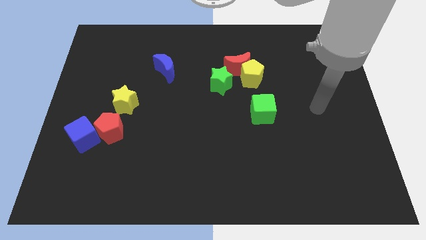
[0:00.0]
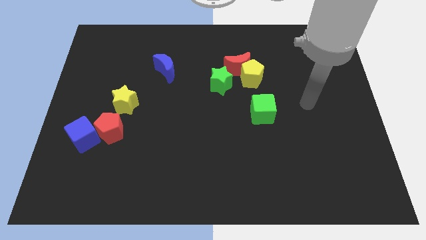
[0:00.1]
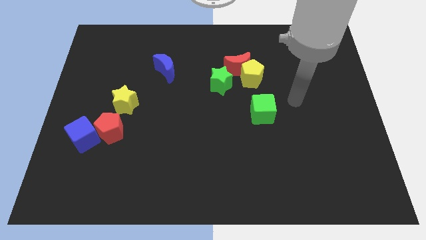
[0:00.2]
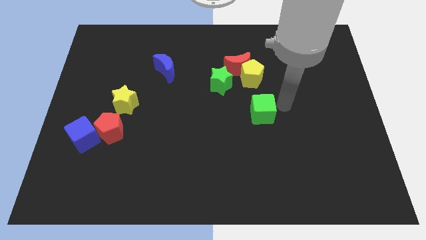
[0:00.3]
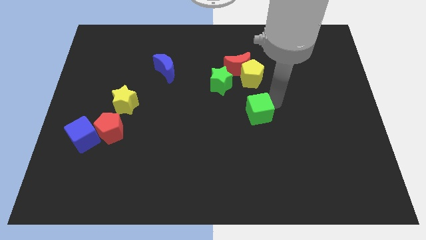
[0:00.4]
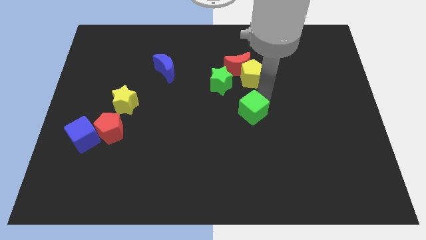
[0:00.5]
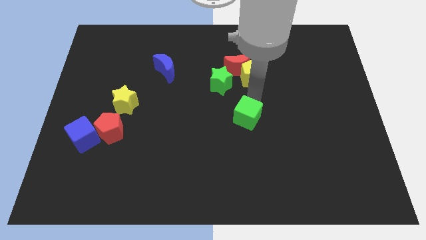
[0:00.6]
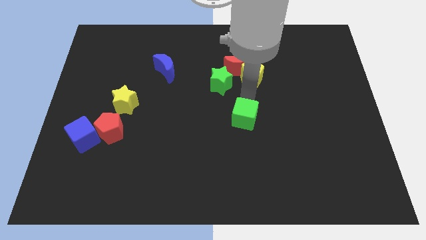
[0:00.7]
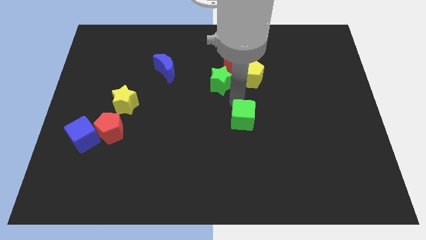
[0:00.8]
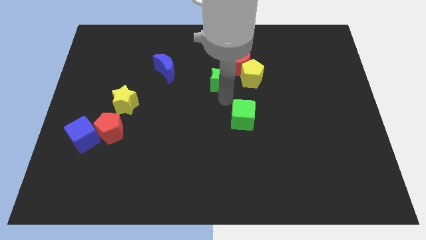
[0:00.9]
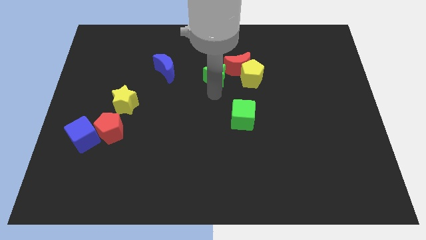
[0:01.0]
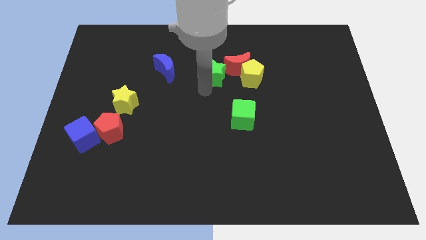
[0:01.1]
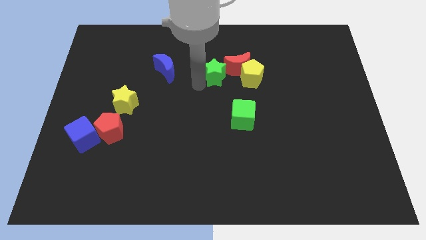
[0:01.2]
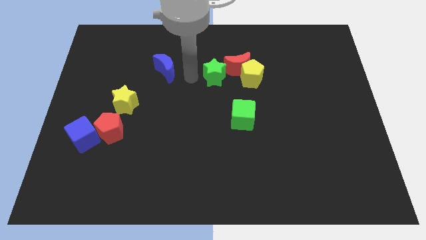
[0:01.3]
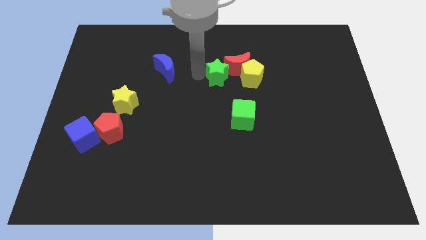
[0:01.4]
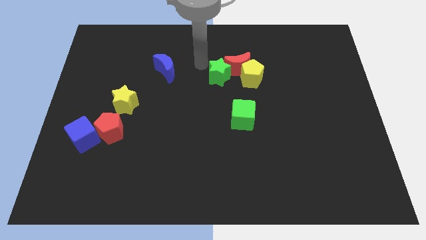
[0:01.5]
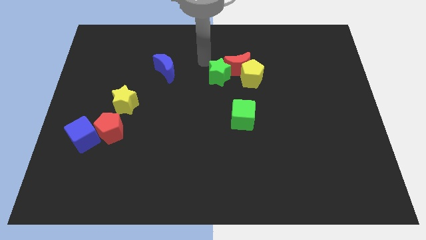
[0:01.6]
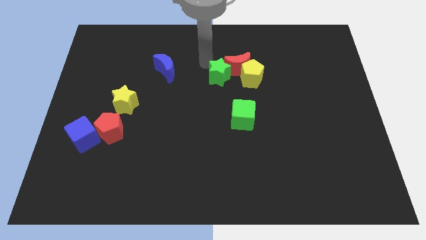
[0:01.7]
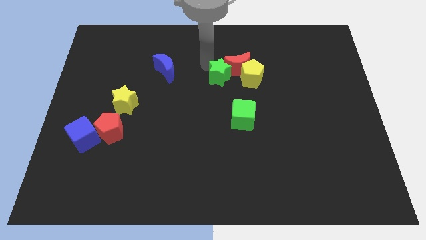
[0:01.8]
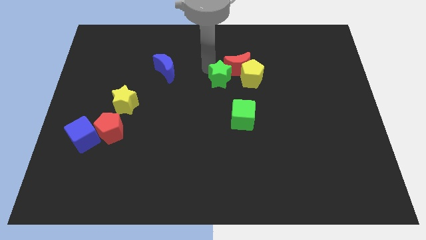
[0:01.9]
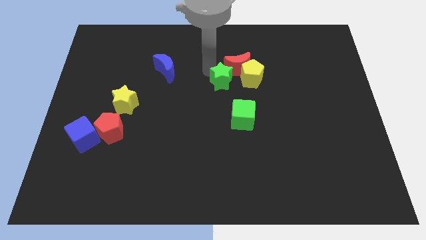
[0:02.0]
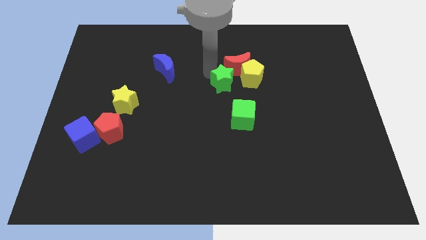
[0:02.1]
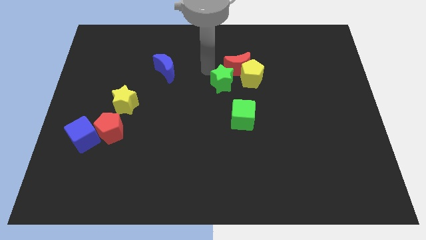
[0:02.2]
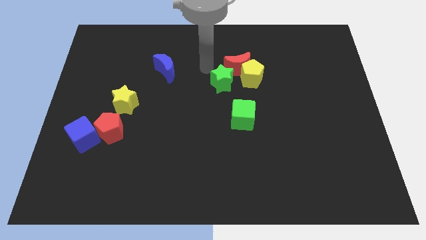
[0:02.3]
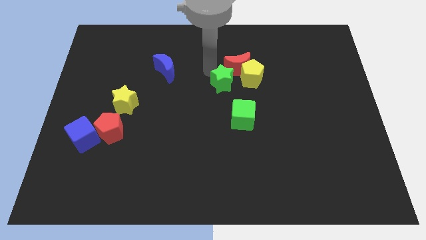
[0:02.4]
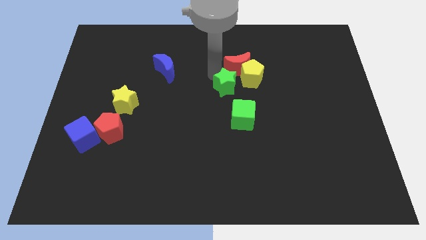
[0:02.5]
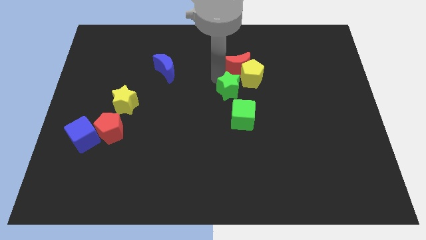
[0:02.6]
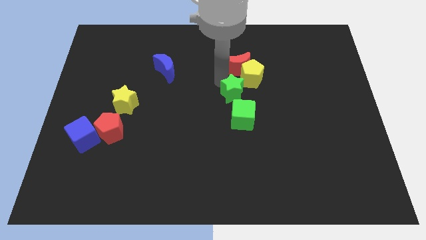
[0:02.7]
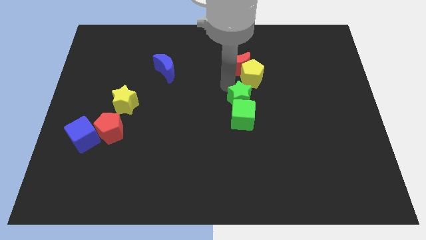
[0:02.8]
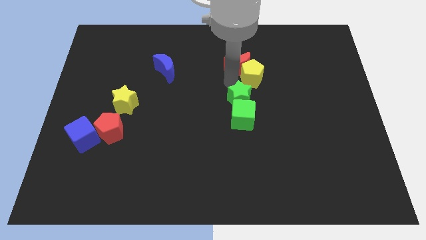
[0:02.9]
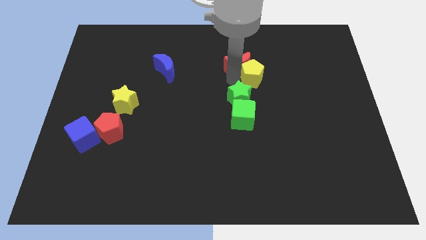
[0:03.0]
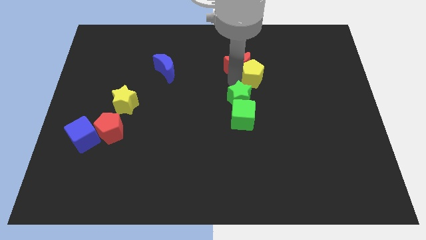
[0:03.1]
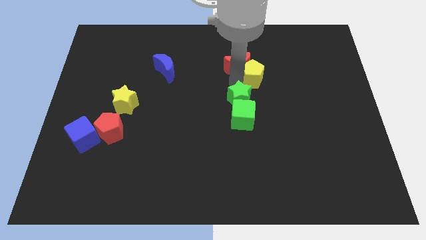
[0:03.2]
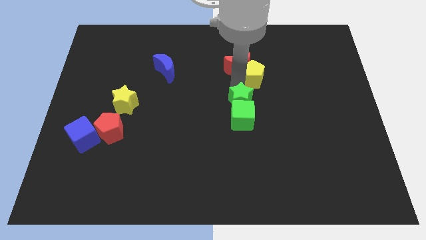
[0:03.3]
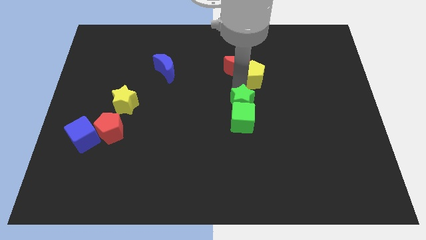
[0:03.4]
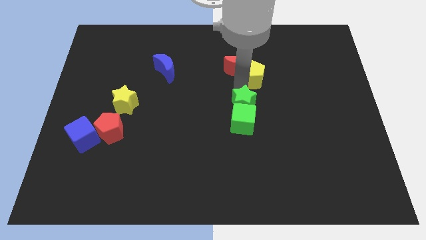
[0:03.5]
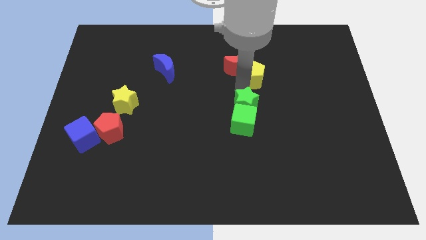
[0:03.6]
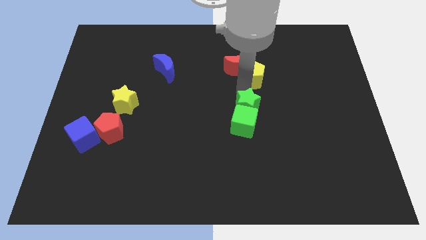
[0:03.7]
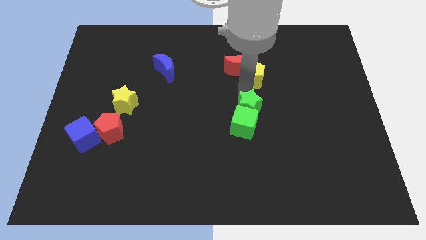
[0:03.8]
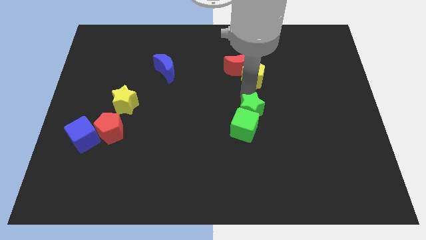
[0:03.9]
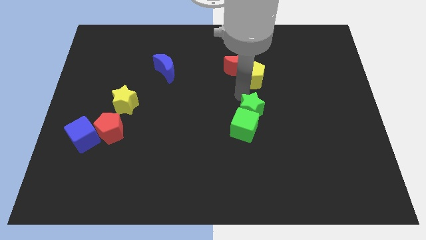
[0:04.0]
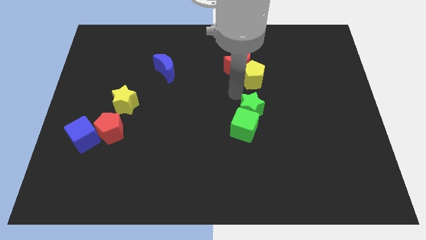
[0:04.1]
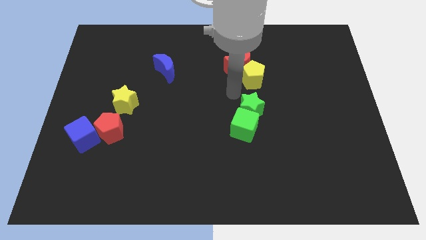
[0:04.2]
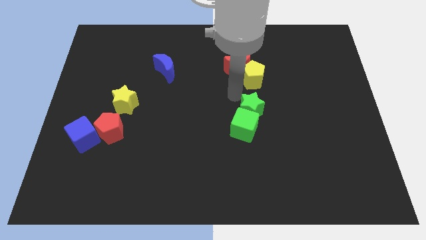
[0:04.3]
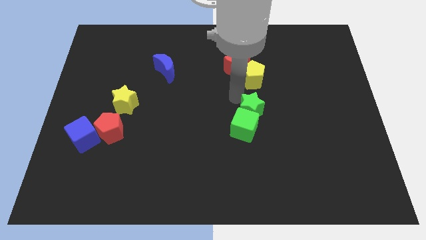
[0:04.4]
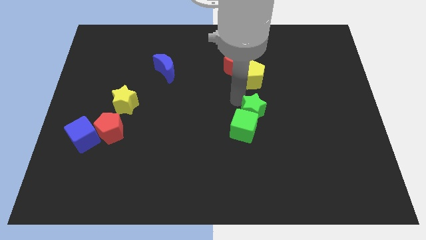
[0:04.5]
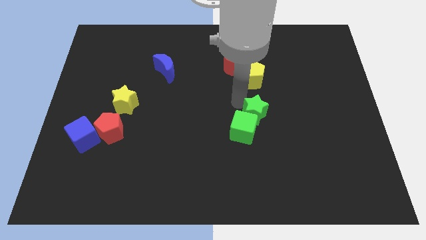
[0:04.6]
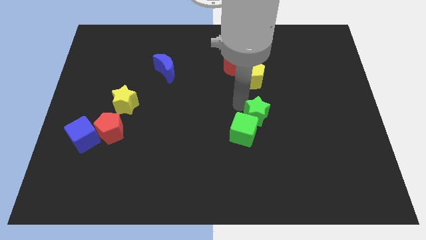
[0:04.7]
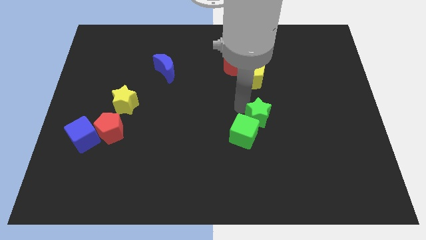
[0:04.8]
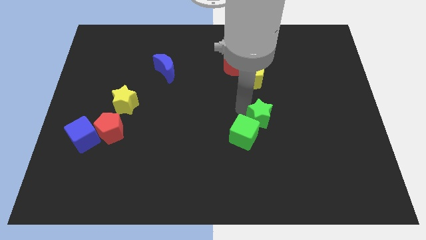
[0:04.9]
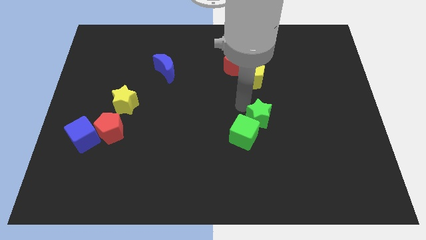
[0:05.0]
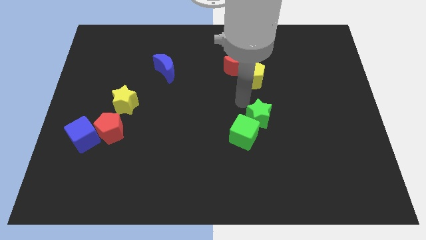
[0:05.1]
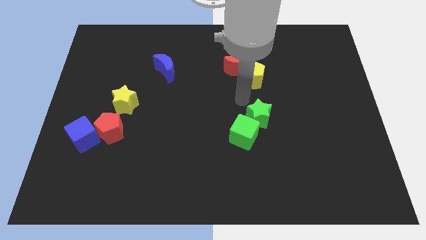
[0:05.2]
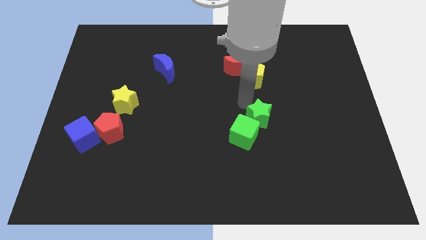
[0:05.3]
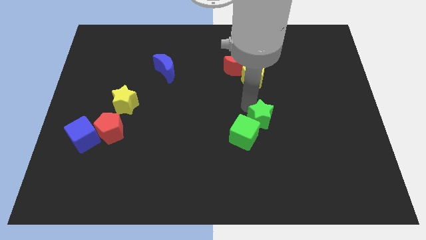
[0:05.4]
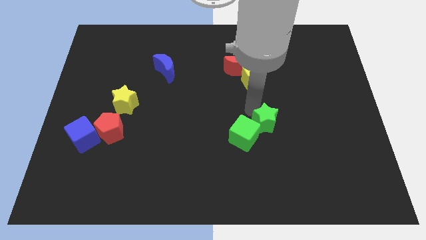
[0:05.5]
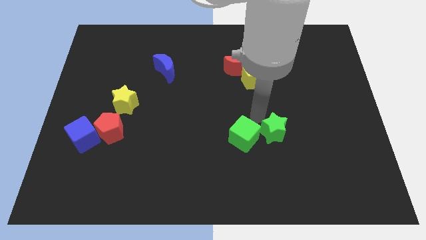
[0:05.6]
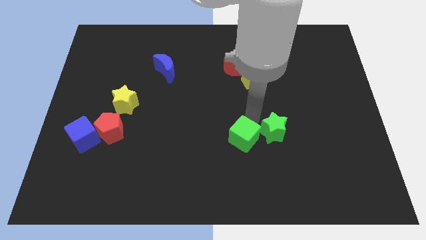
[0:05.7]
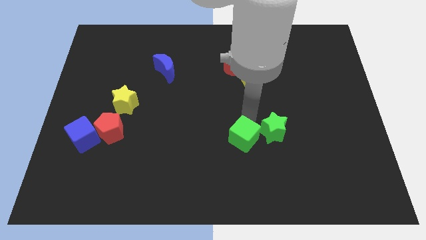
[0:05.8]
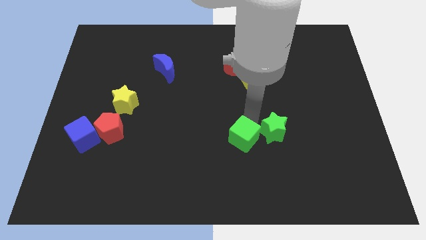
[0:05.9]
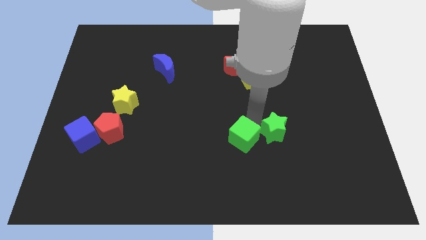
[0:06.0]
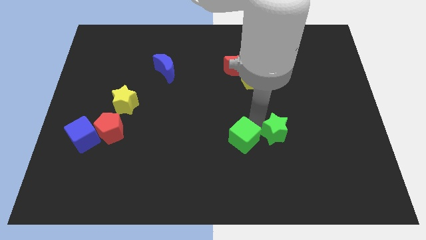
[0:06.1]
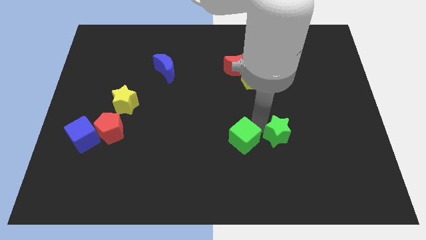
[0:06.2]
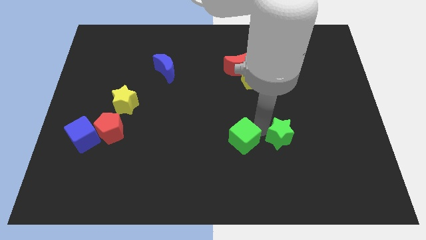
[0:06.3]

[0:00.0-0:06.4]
move the green star down and to the right

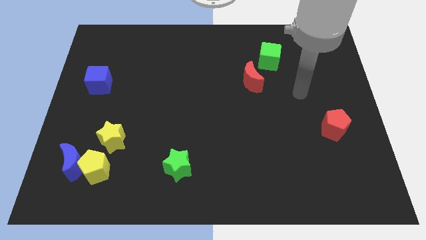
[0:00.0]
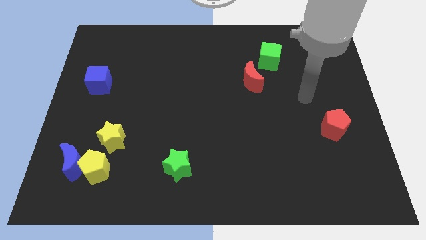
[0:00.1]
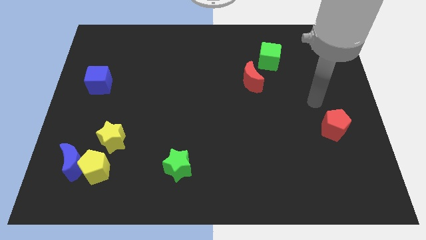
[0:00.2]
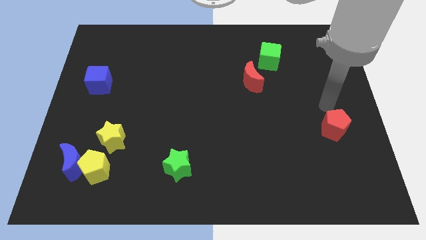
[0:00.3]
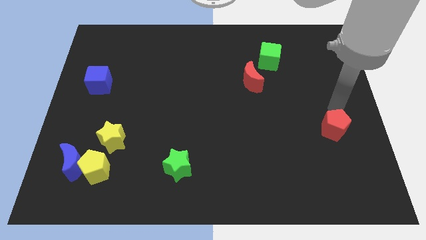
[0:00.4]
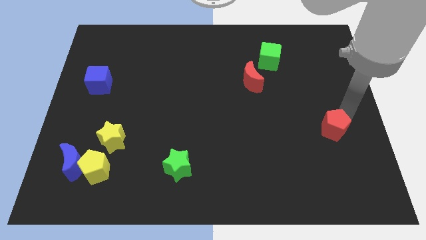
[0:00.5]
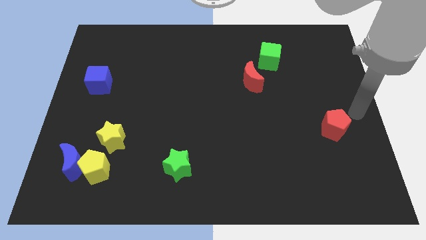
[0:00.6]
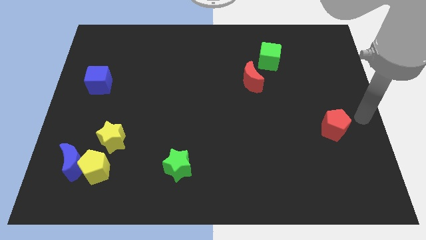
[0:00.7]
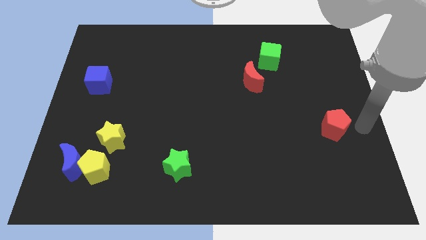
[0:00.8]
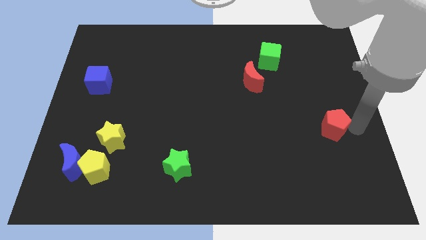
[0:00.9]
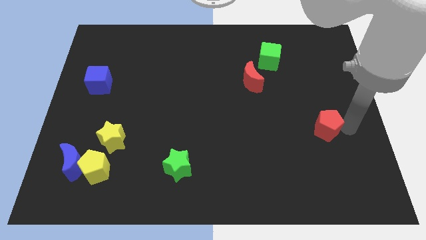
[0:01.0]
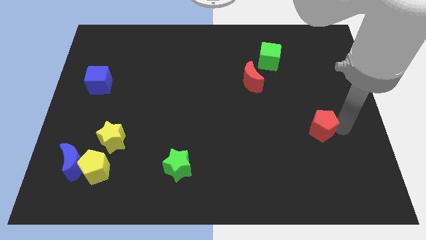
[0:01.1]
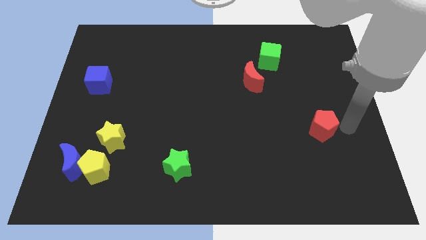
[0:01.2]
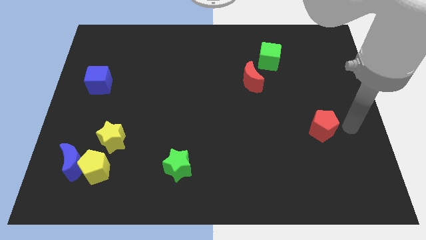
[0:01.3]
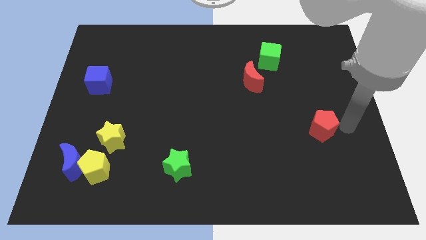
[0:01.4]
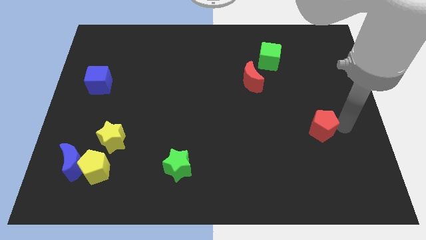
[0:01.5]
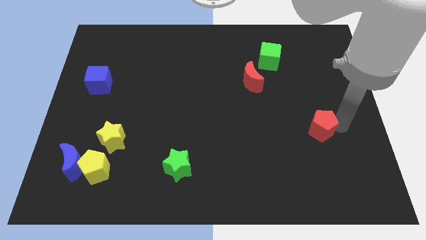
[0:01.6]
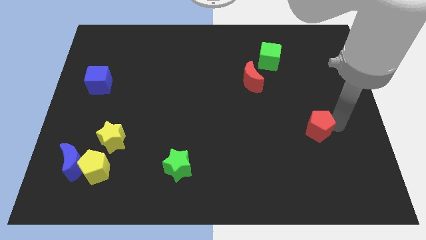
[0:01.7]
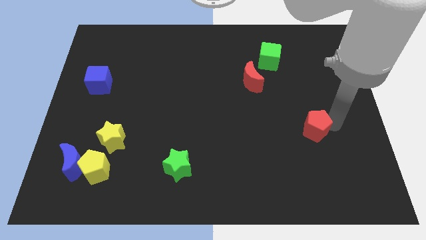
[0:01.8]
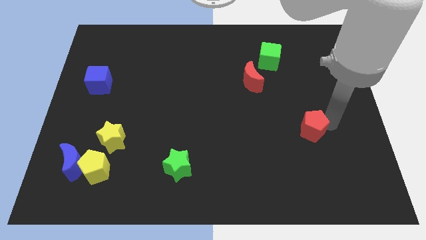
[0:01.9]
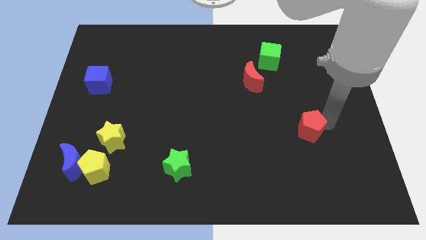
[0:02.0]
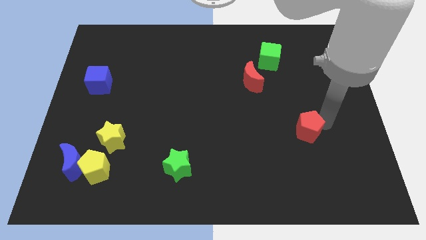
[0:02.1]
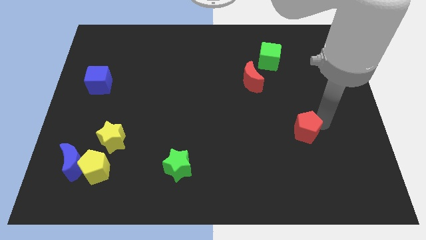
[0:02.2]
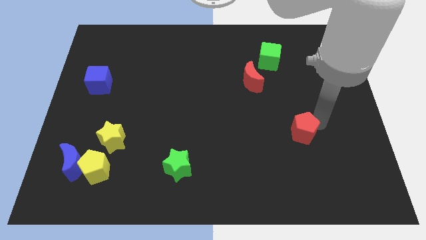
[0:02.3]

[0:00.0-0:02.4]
slightly slide the red pentagon to the left
